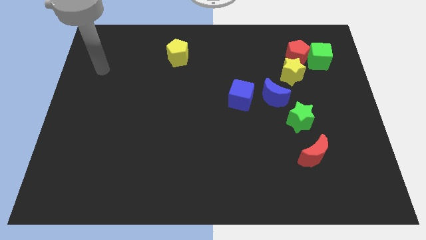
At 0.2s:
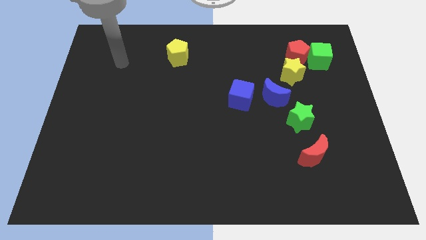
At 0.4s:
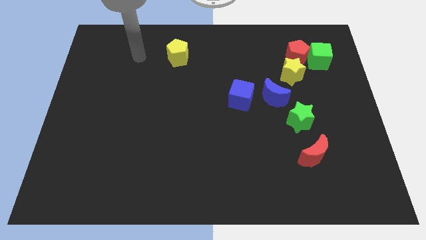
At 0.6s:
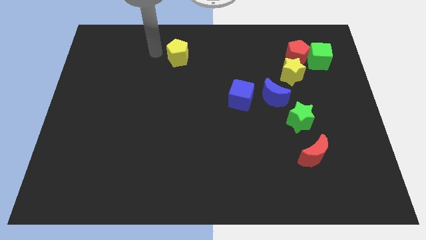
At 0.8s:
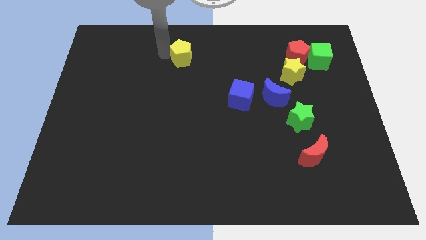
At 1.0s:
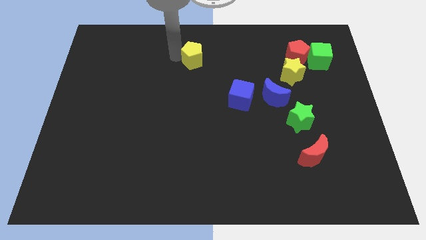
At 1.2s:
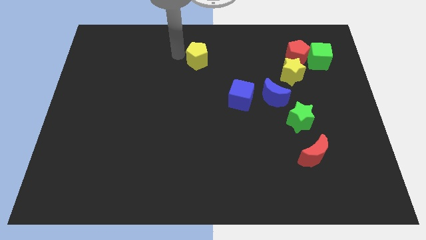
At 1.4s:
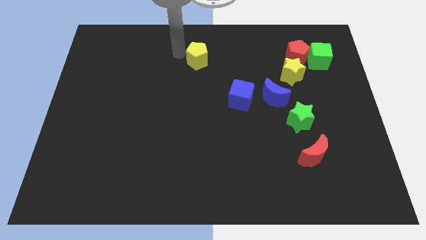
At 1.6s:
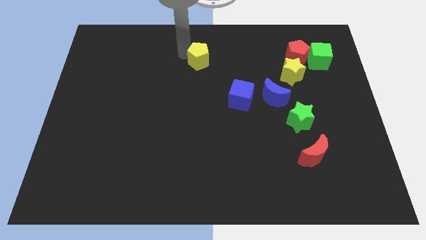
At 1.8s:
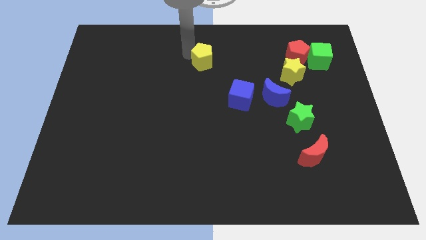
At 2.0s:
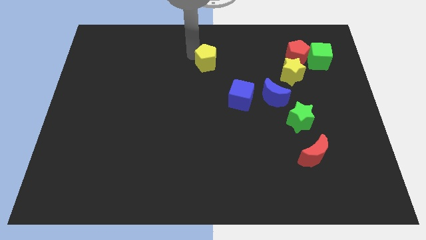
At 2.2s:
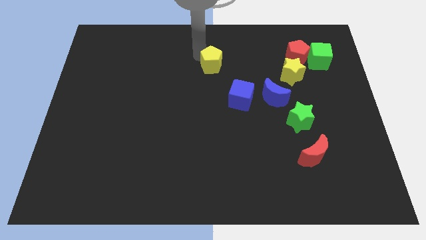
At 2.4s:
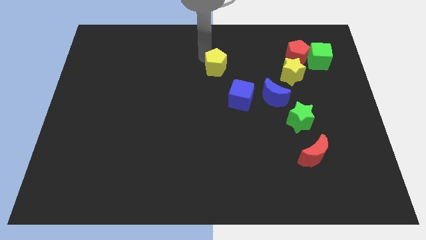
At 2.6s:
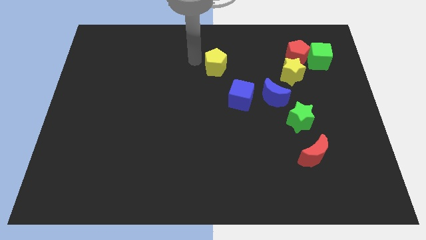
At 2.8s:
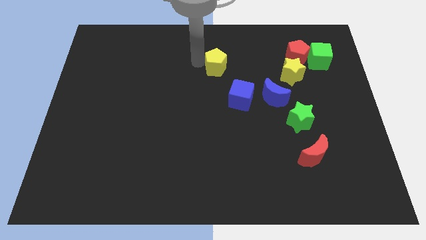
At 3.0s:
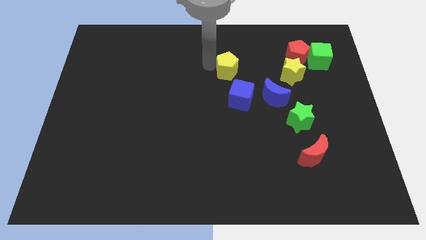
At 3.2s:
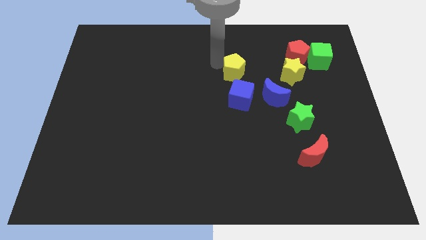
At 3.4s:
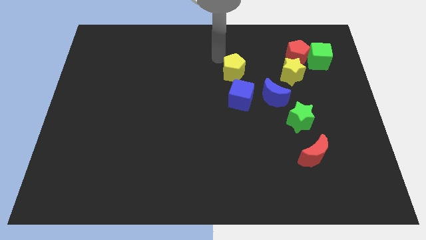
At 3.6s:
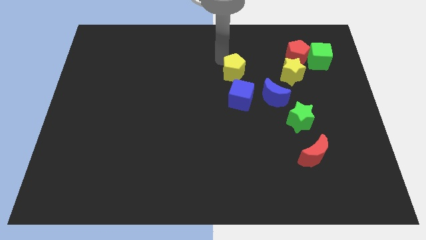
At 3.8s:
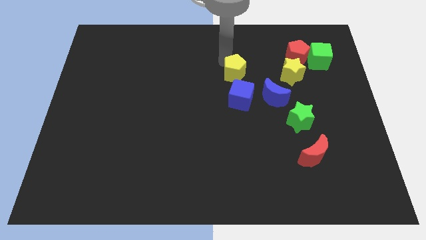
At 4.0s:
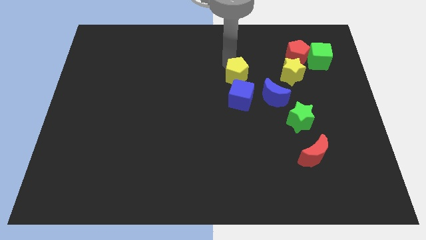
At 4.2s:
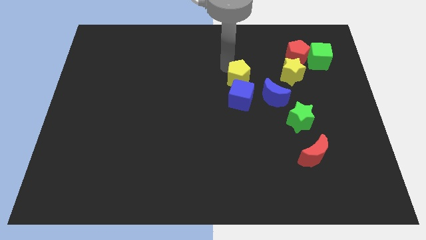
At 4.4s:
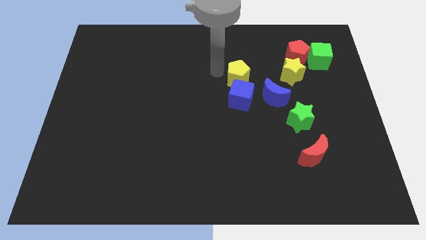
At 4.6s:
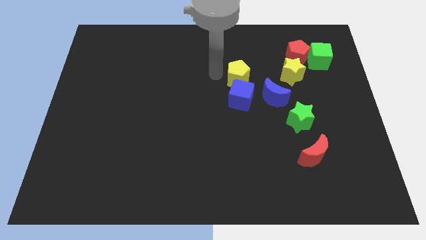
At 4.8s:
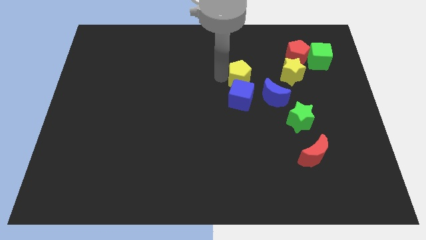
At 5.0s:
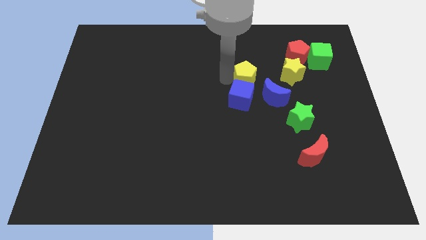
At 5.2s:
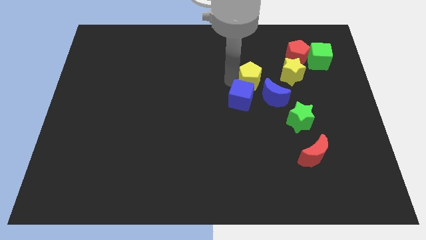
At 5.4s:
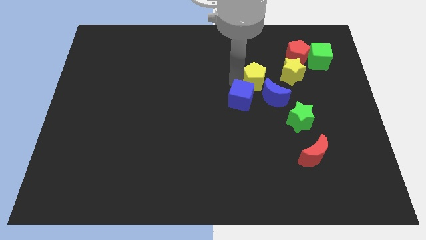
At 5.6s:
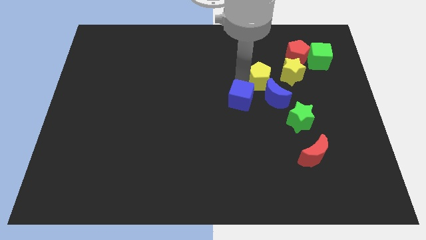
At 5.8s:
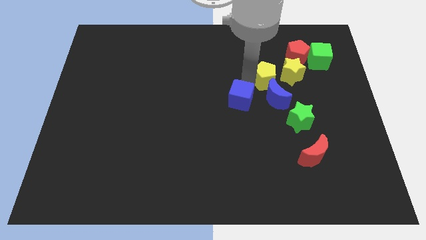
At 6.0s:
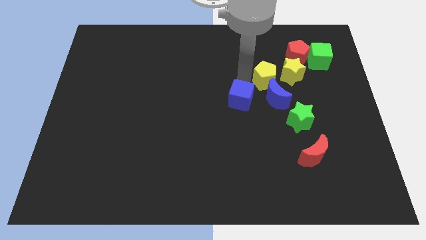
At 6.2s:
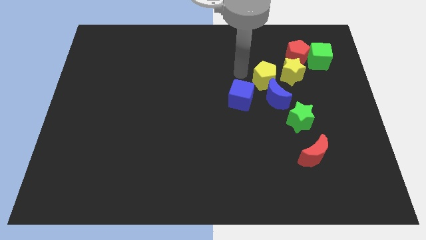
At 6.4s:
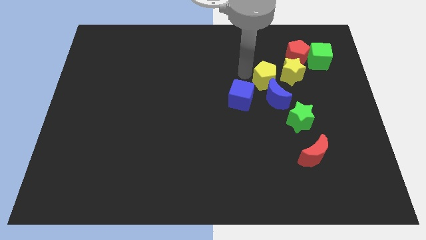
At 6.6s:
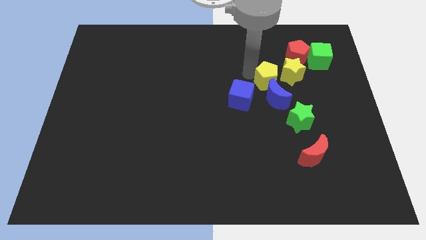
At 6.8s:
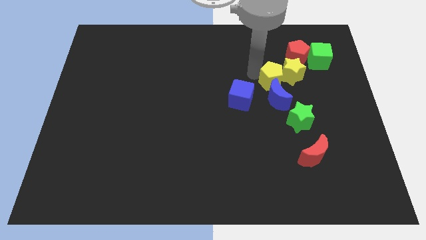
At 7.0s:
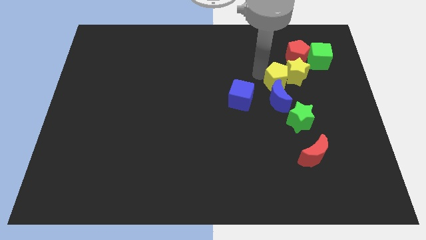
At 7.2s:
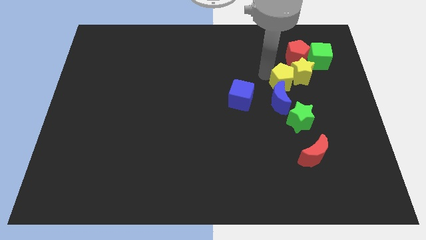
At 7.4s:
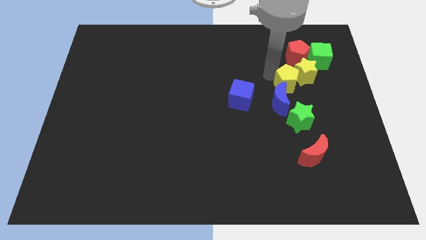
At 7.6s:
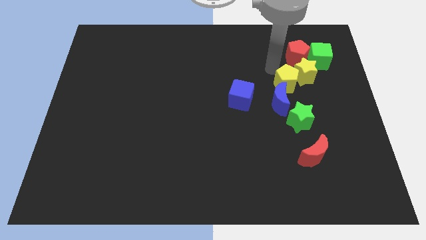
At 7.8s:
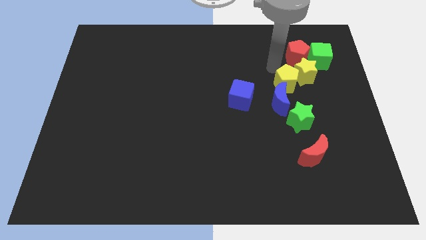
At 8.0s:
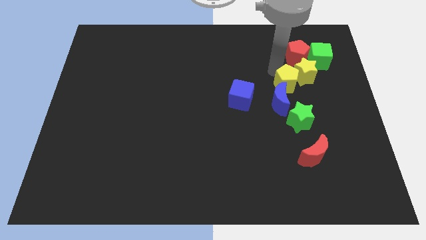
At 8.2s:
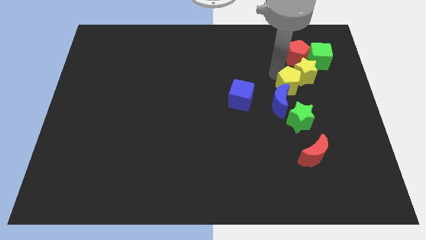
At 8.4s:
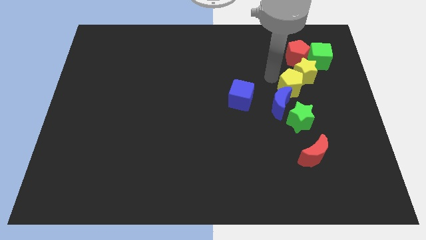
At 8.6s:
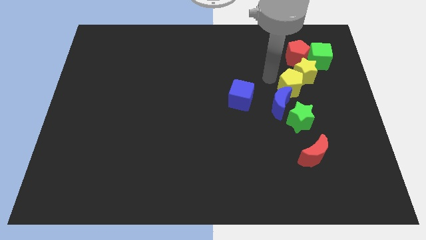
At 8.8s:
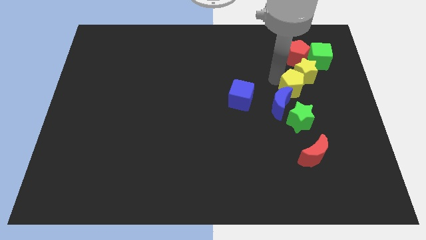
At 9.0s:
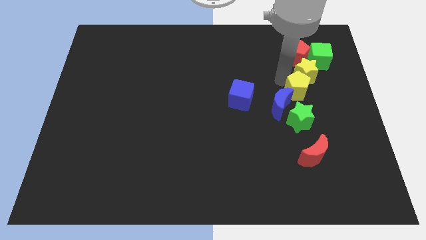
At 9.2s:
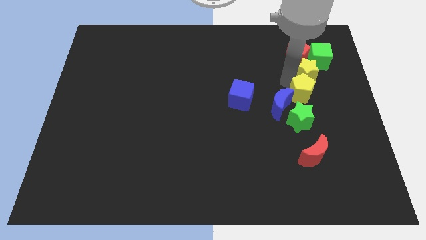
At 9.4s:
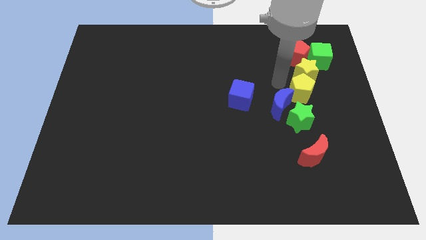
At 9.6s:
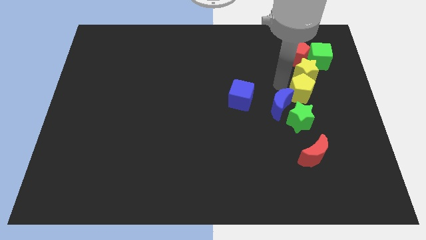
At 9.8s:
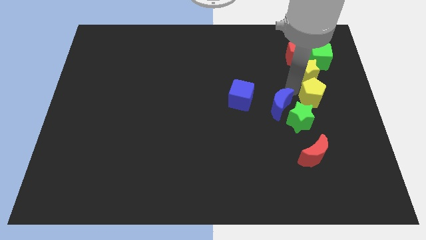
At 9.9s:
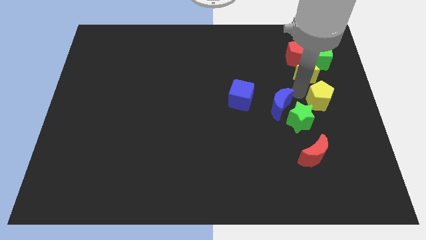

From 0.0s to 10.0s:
put the yellow pentagon to the right side
